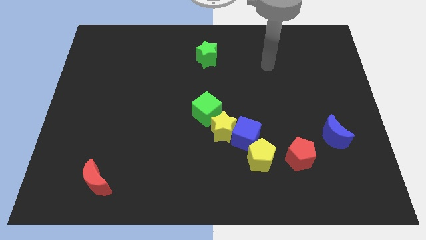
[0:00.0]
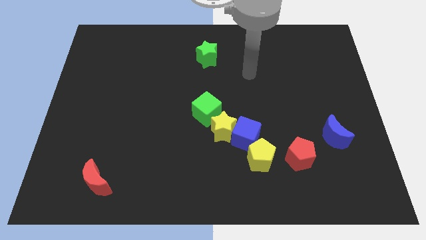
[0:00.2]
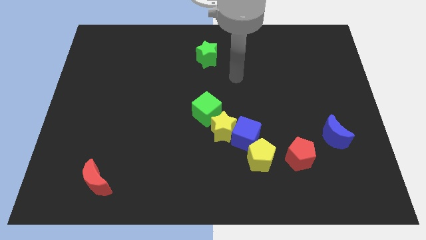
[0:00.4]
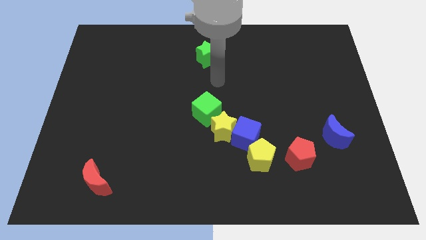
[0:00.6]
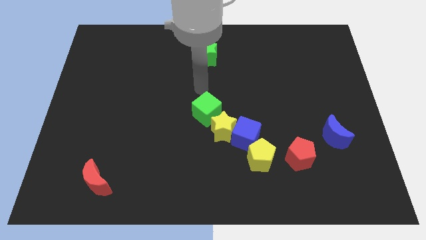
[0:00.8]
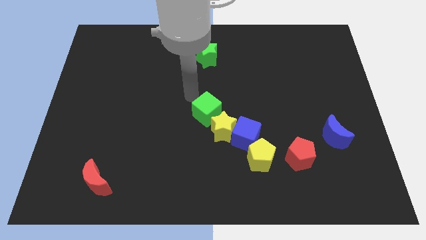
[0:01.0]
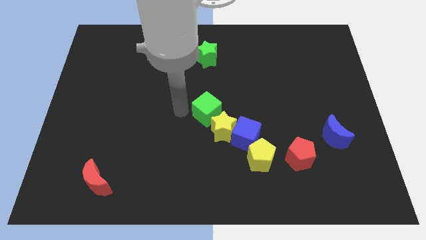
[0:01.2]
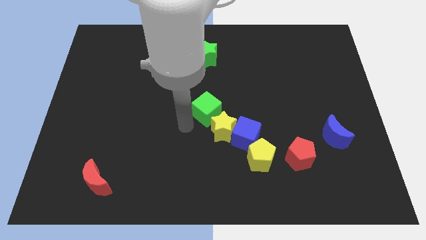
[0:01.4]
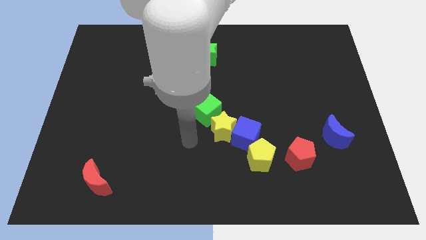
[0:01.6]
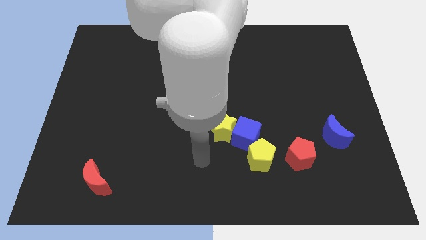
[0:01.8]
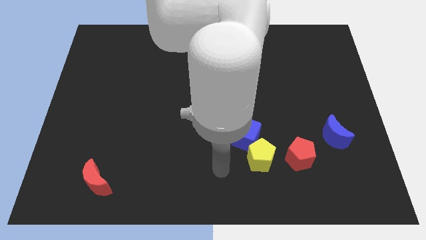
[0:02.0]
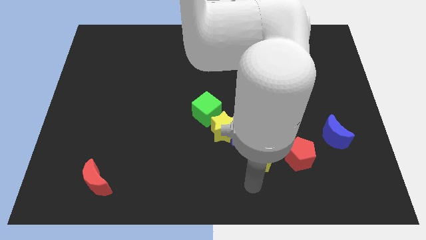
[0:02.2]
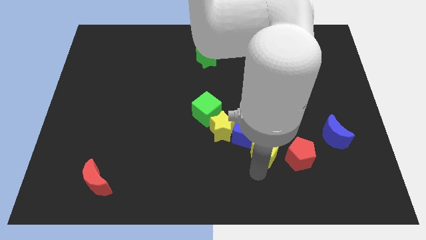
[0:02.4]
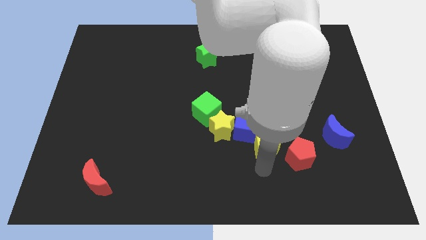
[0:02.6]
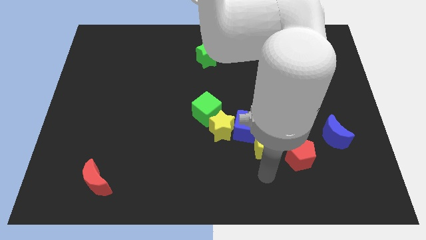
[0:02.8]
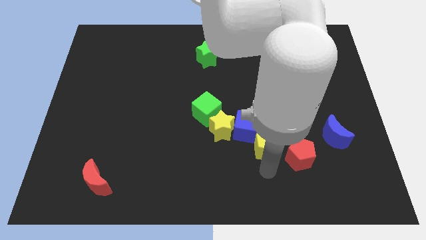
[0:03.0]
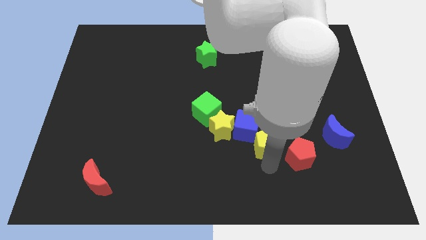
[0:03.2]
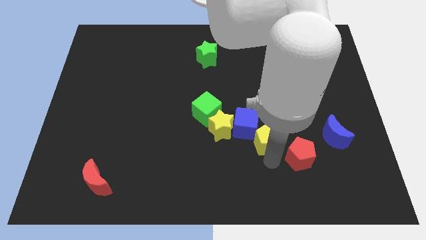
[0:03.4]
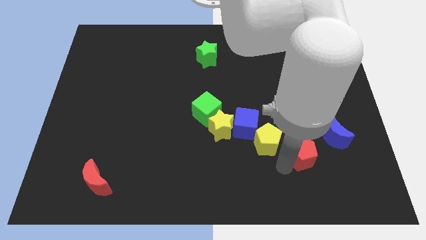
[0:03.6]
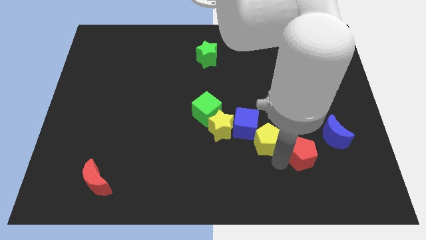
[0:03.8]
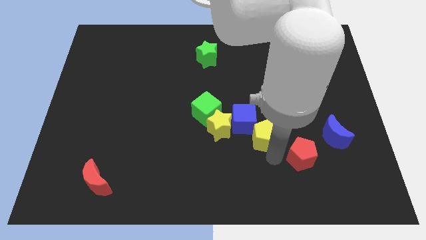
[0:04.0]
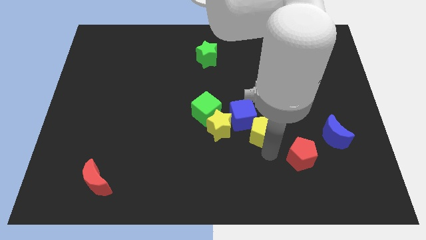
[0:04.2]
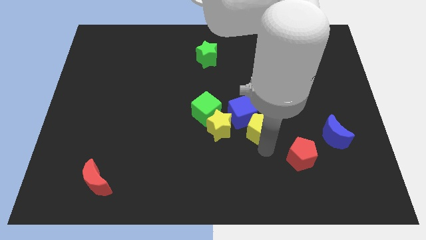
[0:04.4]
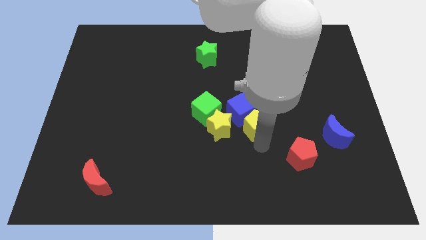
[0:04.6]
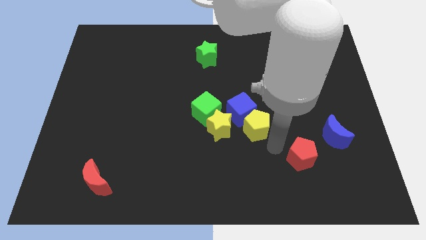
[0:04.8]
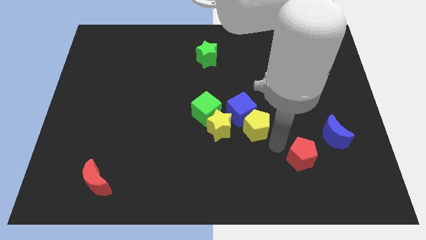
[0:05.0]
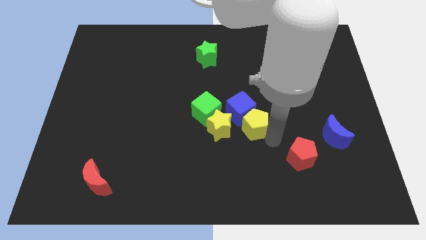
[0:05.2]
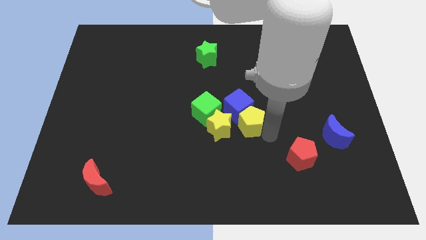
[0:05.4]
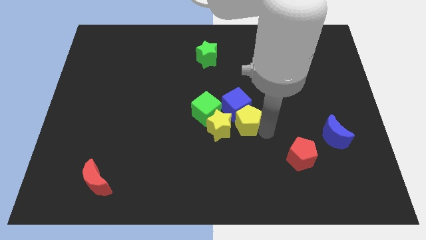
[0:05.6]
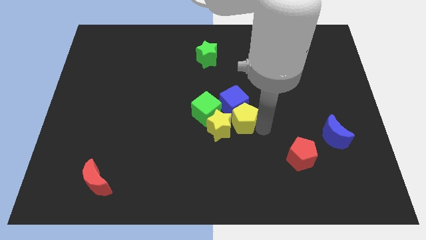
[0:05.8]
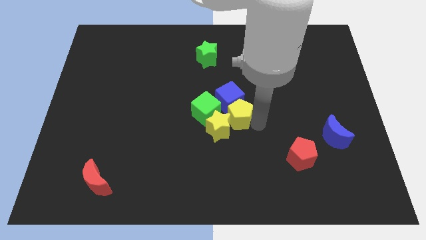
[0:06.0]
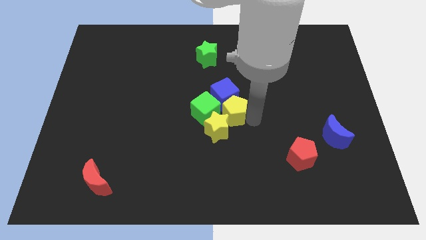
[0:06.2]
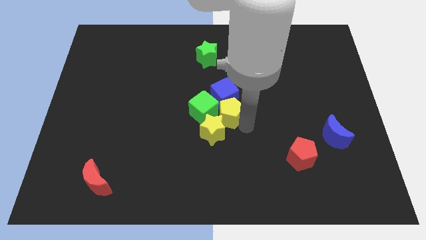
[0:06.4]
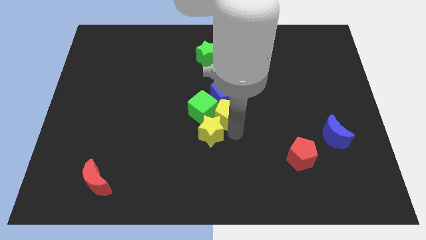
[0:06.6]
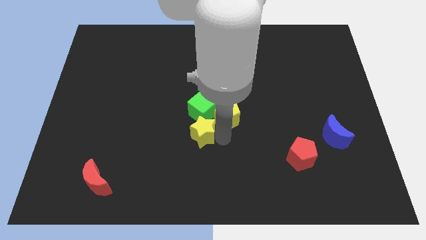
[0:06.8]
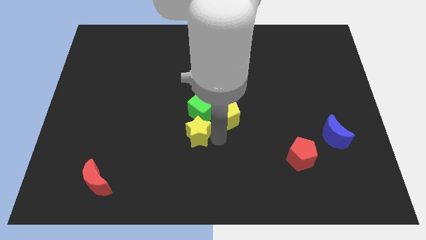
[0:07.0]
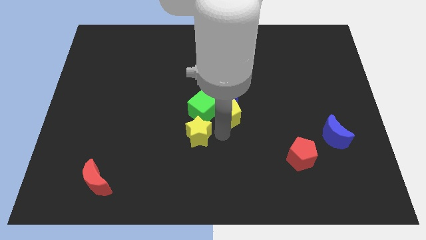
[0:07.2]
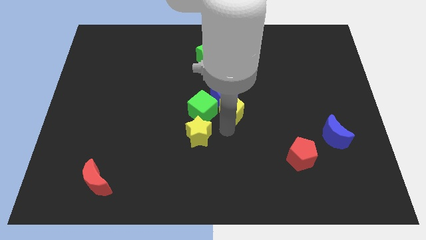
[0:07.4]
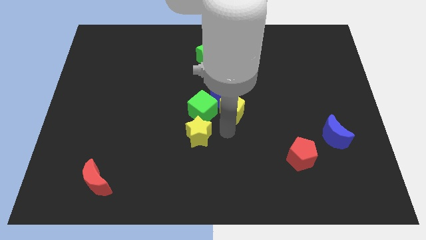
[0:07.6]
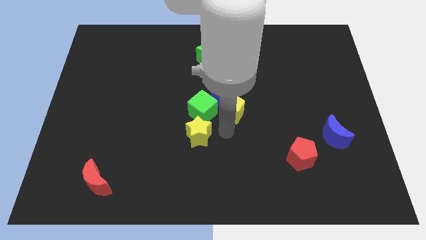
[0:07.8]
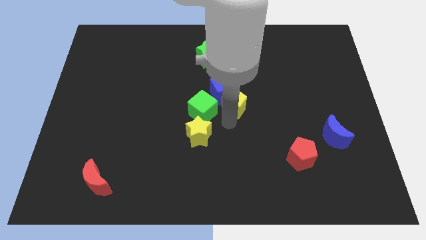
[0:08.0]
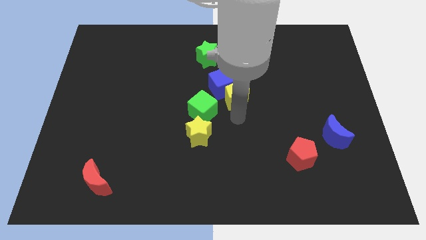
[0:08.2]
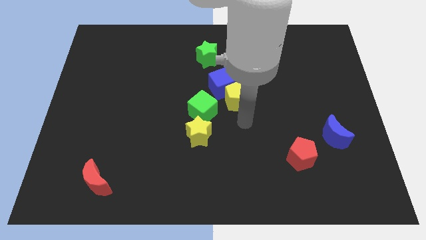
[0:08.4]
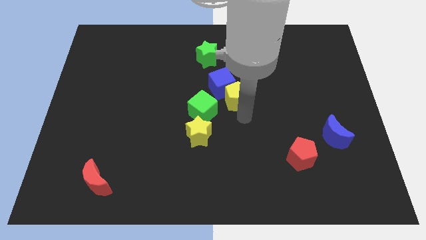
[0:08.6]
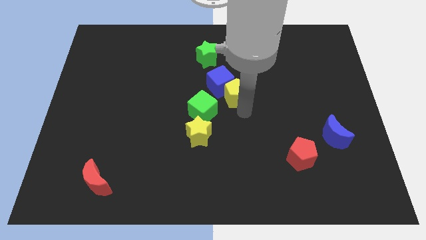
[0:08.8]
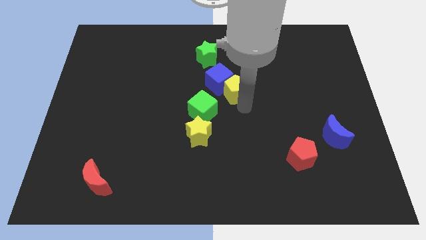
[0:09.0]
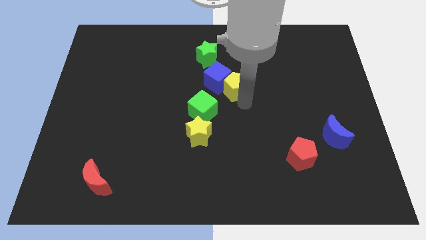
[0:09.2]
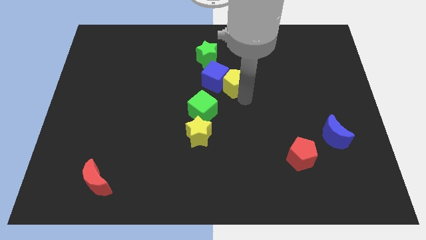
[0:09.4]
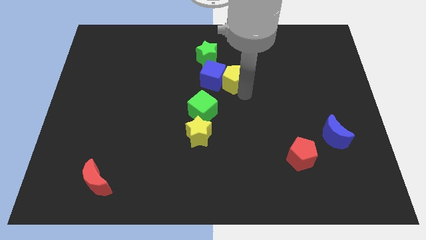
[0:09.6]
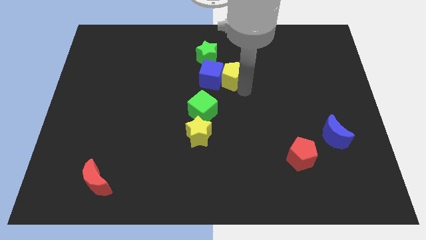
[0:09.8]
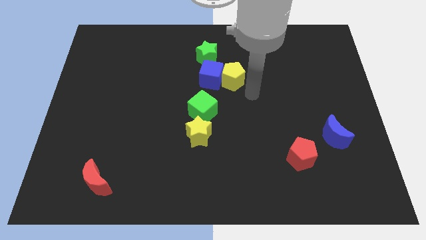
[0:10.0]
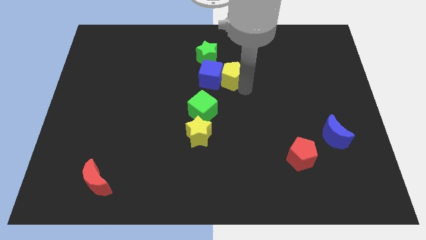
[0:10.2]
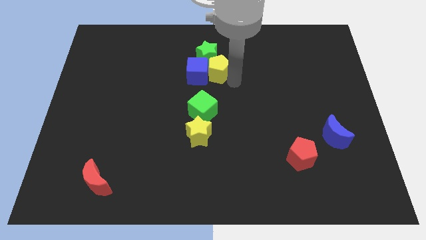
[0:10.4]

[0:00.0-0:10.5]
slide the yellow pentagon next to the green star

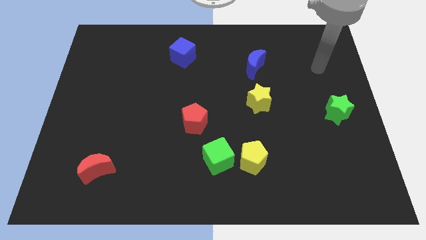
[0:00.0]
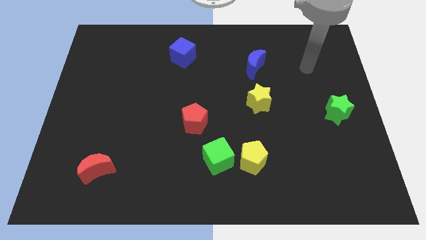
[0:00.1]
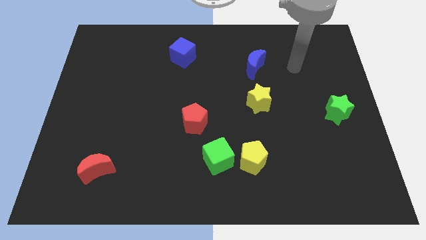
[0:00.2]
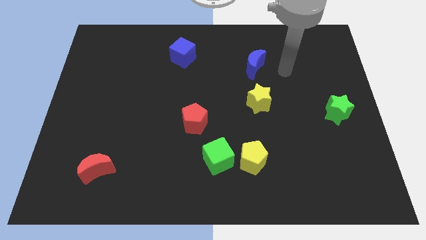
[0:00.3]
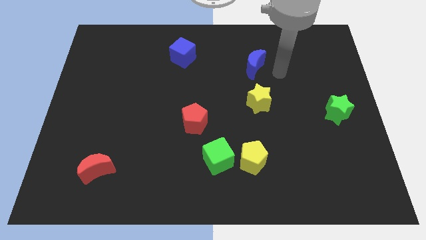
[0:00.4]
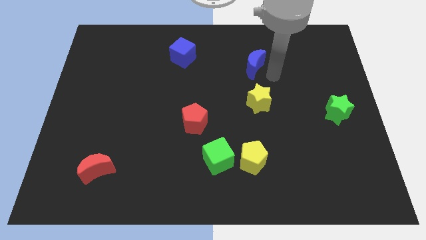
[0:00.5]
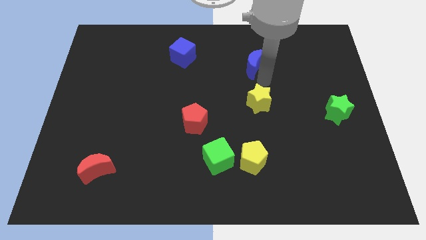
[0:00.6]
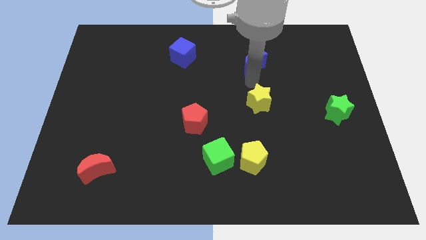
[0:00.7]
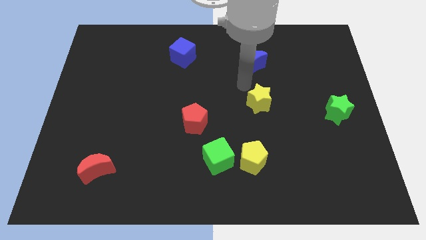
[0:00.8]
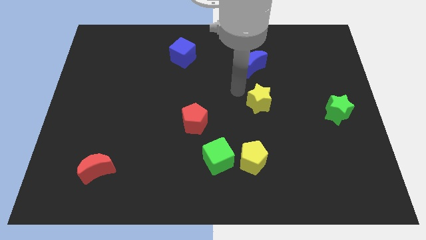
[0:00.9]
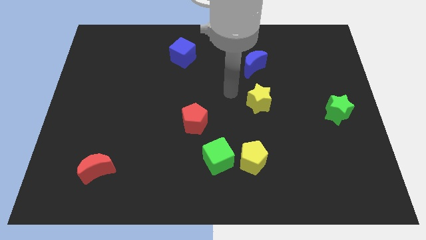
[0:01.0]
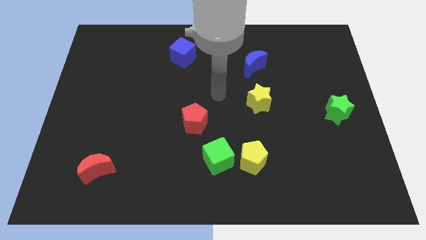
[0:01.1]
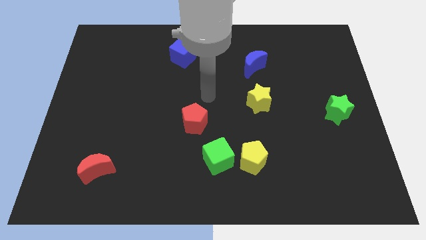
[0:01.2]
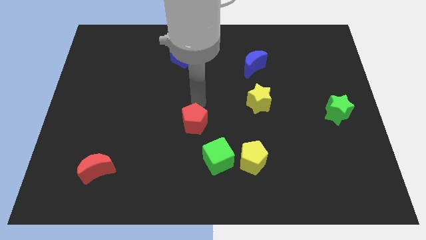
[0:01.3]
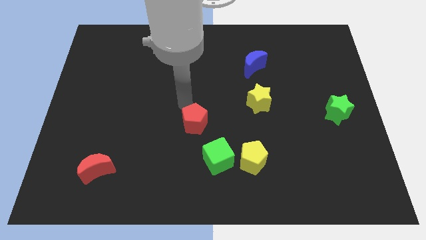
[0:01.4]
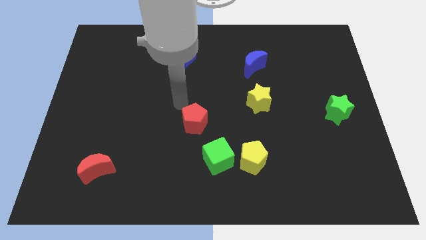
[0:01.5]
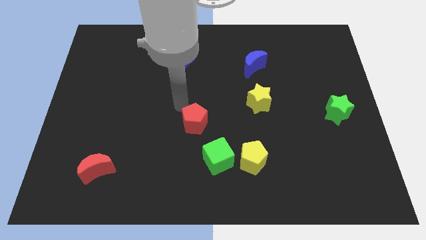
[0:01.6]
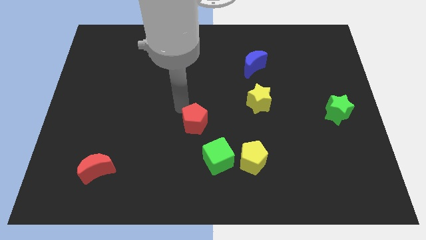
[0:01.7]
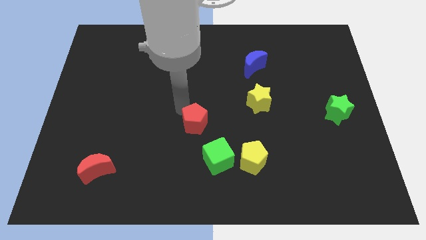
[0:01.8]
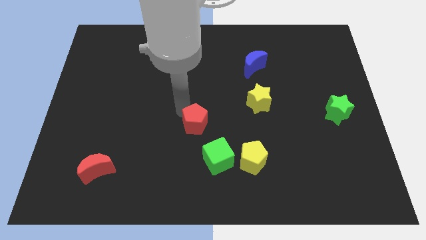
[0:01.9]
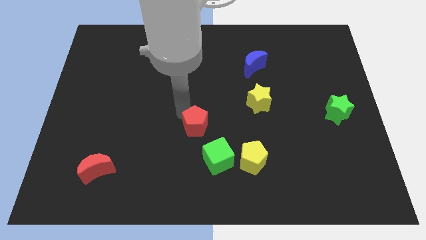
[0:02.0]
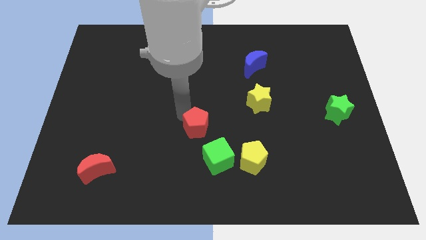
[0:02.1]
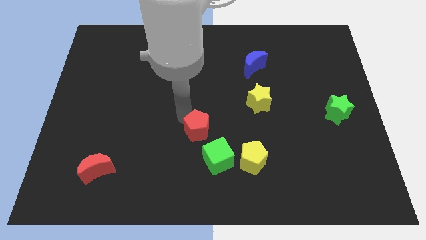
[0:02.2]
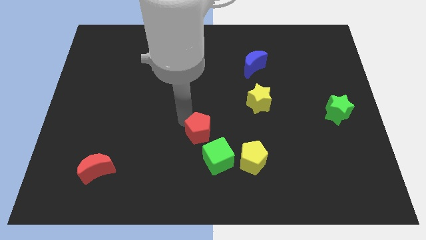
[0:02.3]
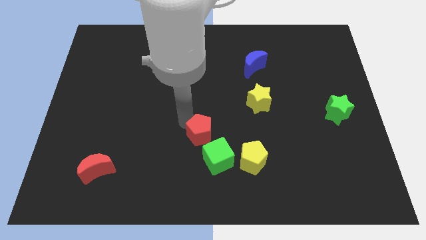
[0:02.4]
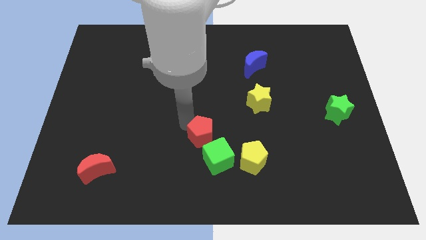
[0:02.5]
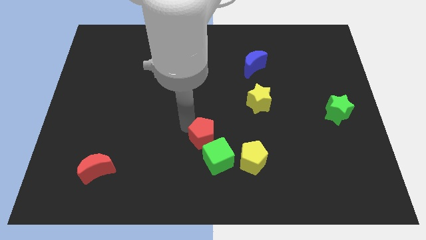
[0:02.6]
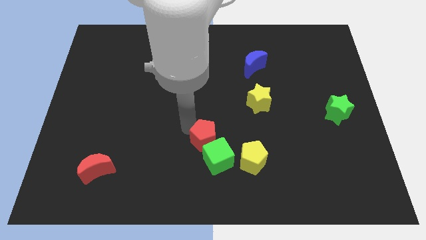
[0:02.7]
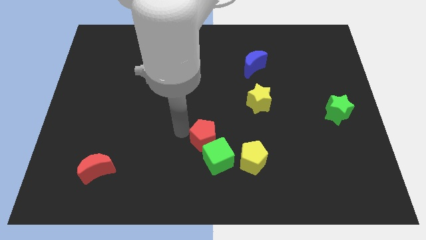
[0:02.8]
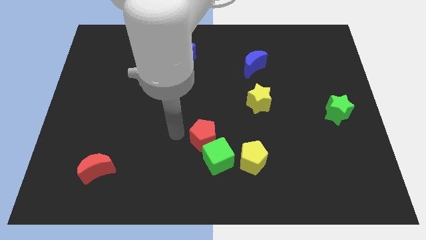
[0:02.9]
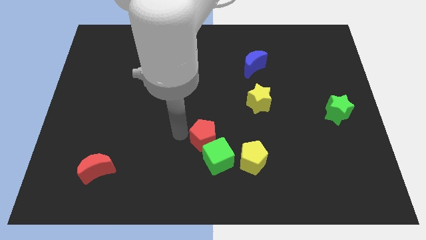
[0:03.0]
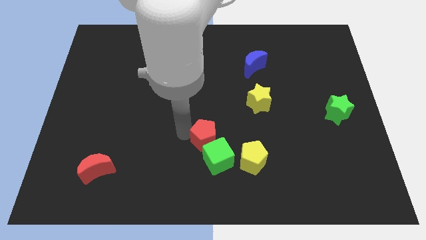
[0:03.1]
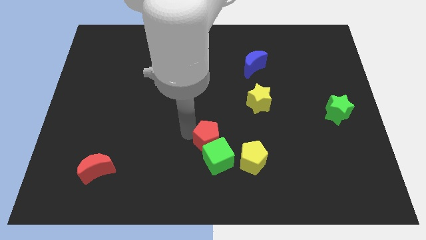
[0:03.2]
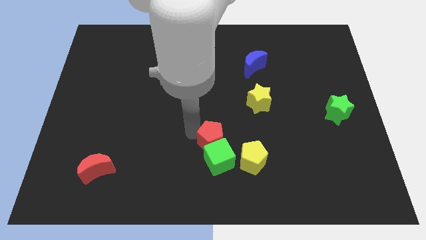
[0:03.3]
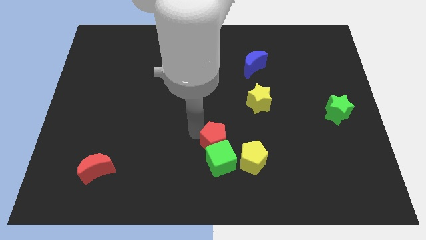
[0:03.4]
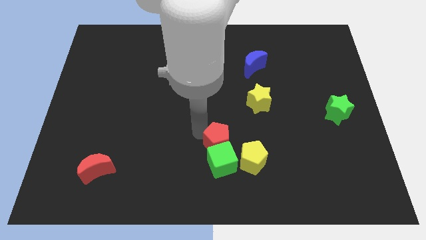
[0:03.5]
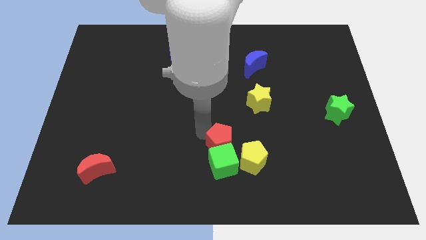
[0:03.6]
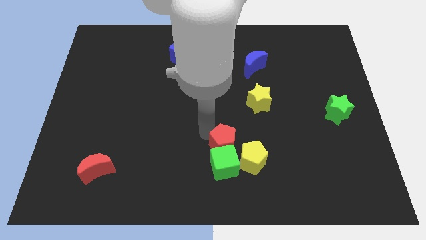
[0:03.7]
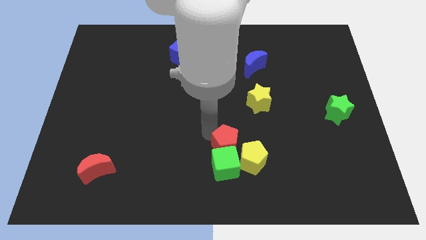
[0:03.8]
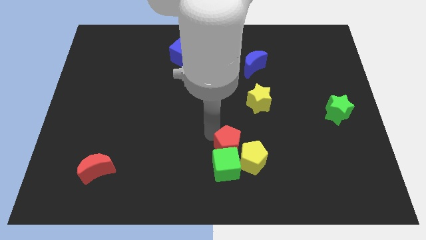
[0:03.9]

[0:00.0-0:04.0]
put the red pentagon to the yellow pentagon
